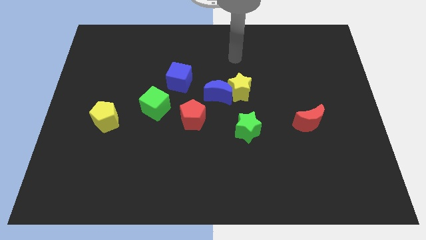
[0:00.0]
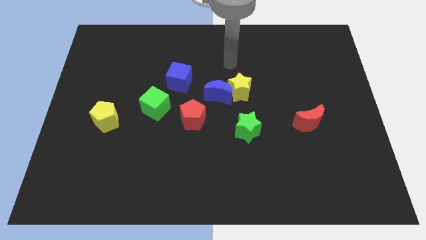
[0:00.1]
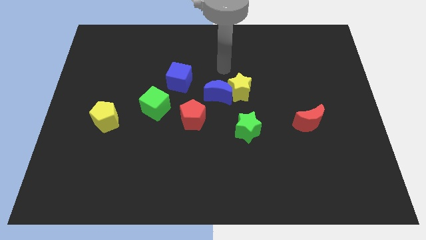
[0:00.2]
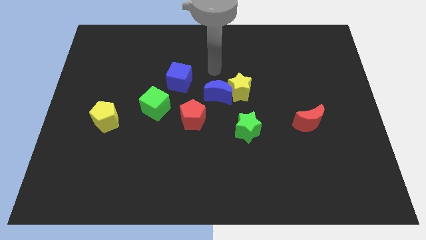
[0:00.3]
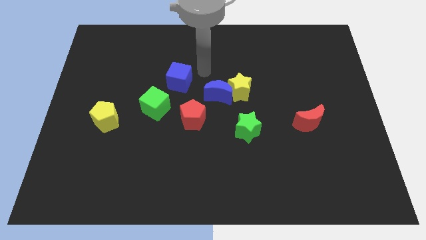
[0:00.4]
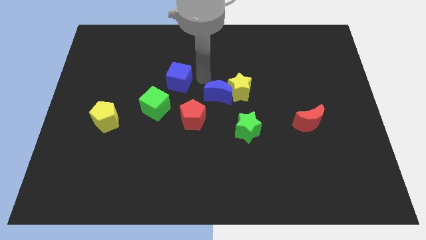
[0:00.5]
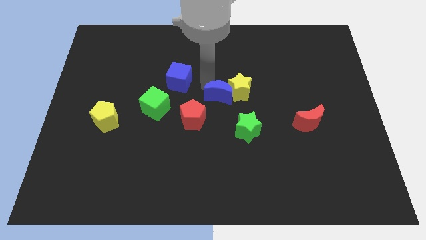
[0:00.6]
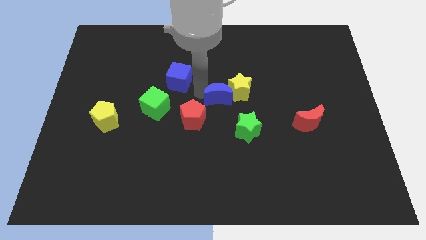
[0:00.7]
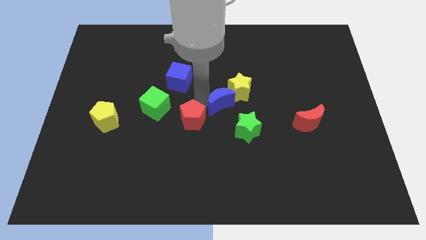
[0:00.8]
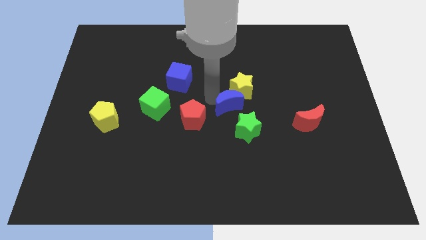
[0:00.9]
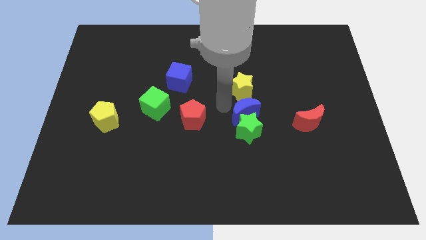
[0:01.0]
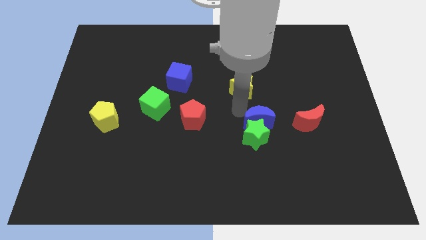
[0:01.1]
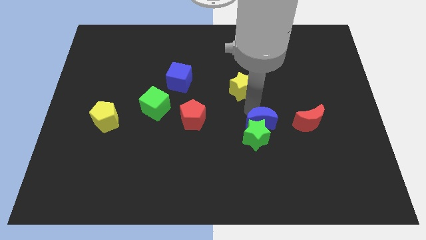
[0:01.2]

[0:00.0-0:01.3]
move the yellow star away from the blue moon

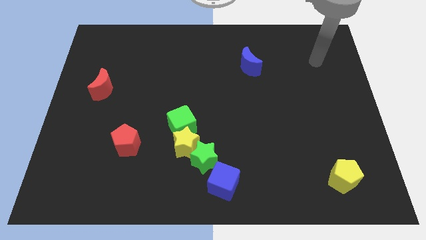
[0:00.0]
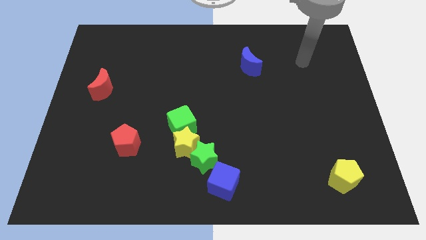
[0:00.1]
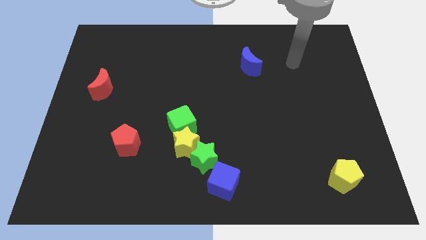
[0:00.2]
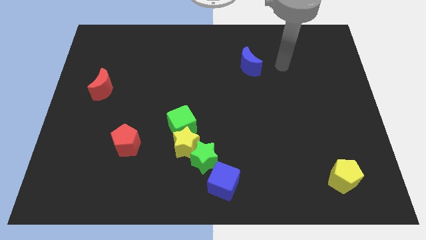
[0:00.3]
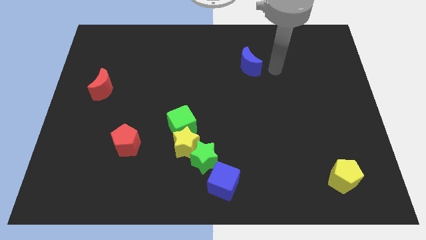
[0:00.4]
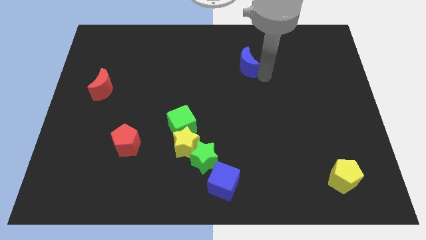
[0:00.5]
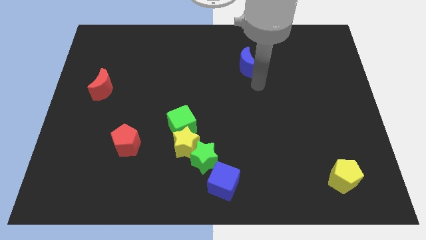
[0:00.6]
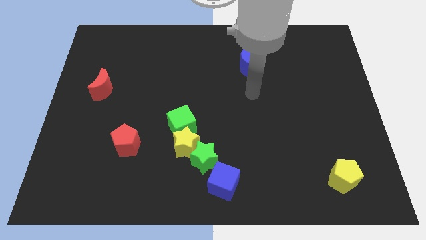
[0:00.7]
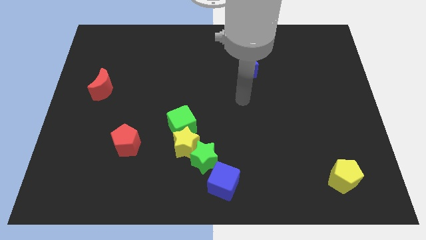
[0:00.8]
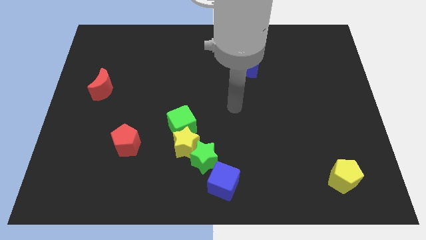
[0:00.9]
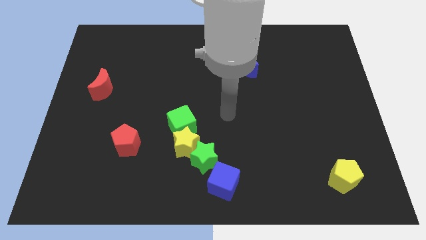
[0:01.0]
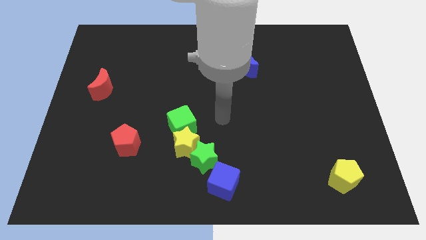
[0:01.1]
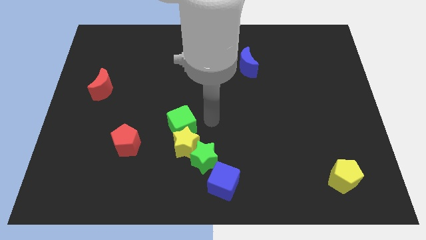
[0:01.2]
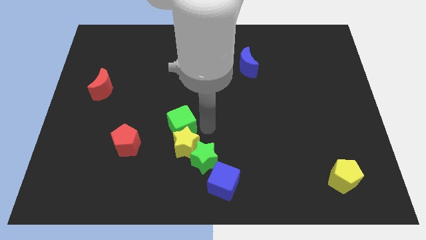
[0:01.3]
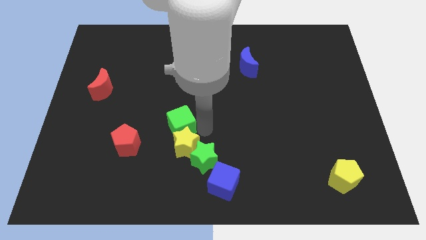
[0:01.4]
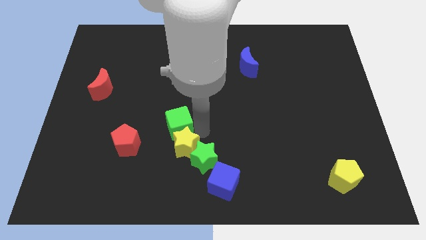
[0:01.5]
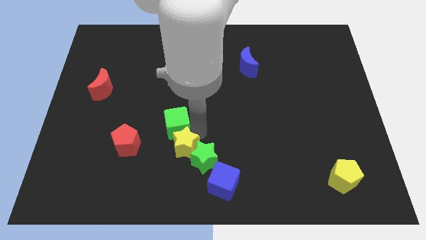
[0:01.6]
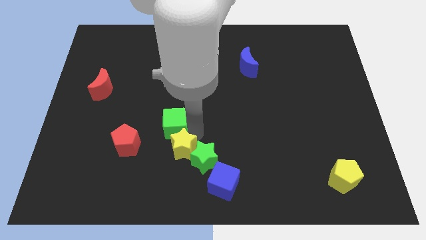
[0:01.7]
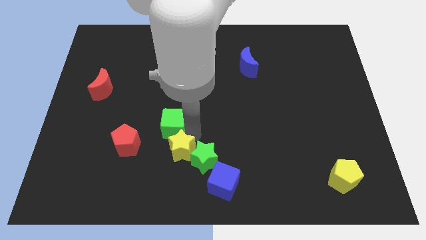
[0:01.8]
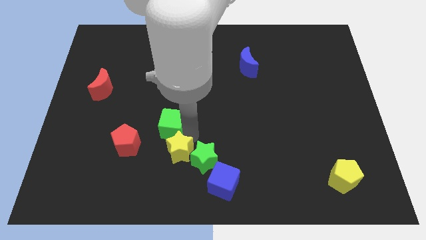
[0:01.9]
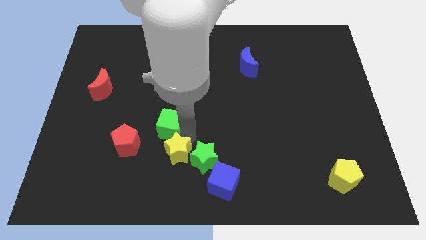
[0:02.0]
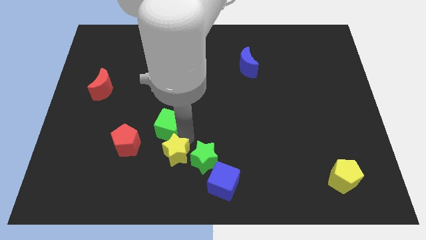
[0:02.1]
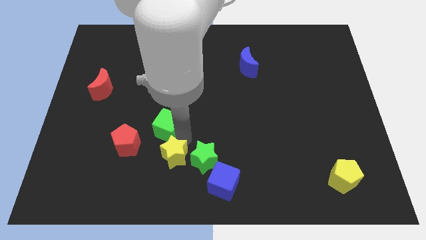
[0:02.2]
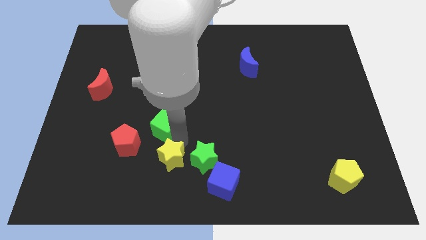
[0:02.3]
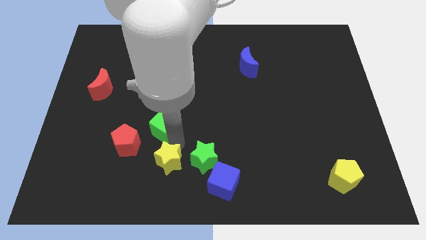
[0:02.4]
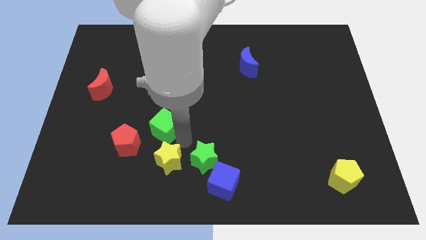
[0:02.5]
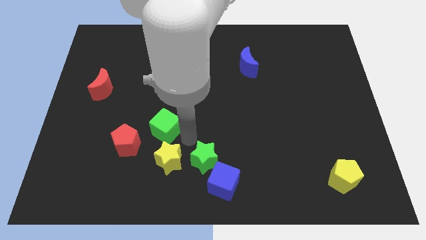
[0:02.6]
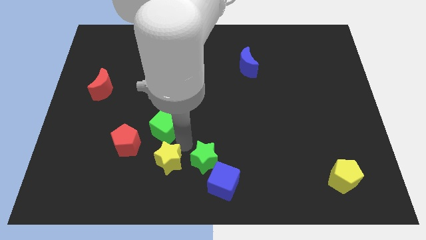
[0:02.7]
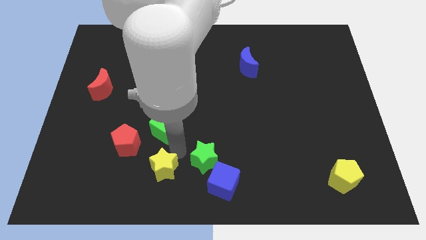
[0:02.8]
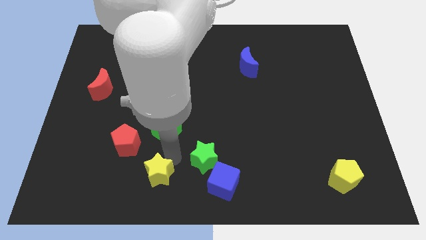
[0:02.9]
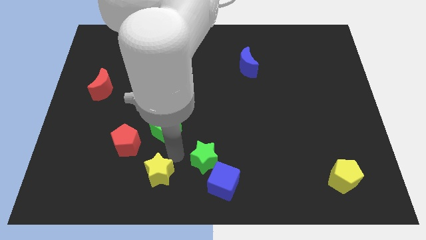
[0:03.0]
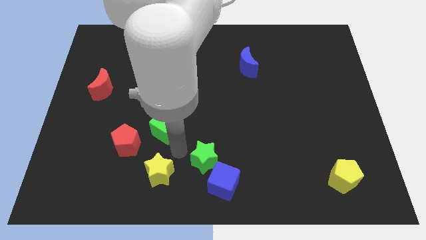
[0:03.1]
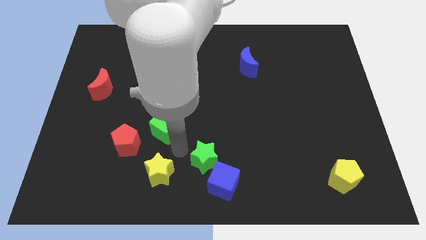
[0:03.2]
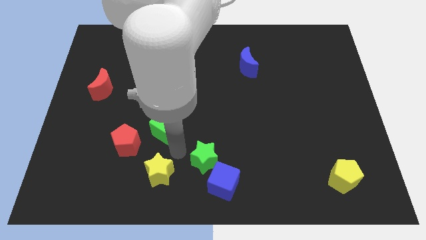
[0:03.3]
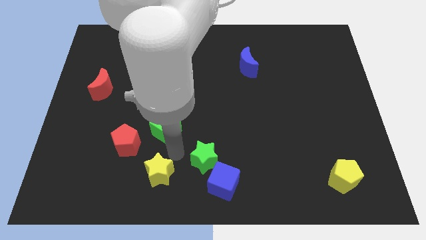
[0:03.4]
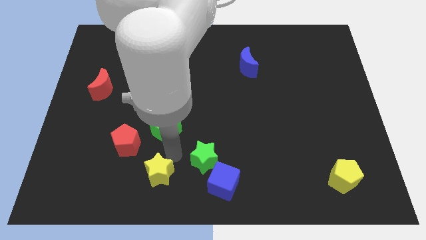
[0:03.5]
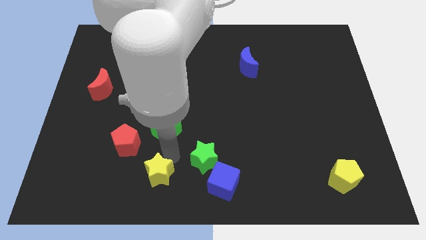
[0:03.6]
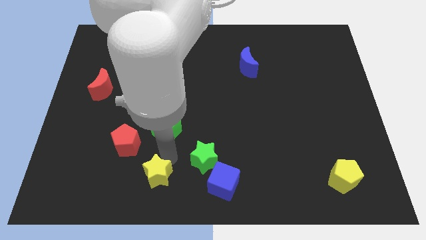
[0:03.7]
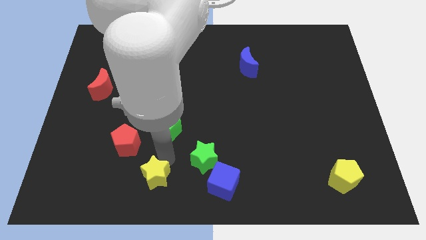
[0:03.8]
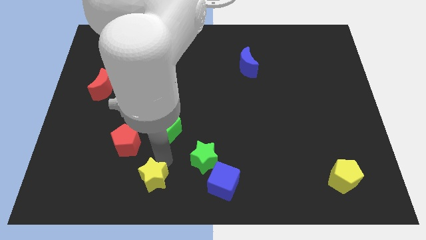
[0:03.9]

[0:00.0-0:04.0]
move the yellow star away from the green star and green cube

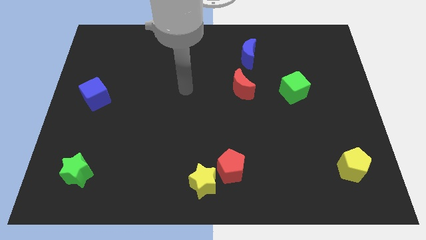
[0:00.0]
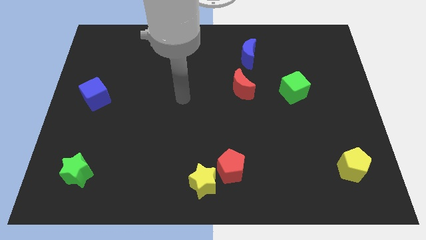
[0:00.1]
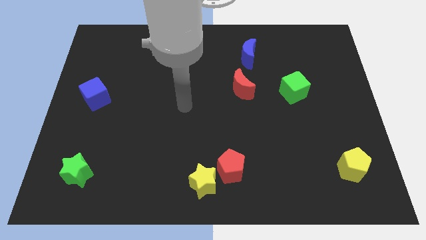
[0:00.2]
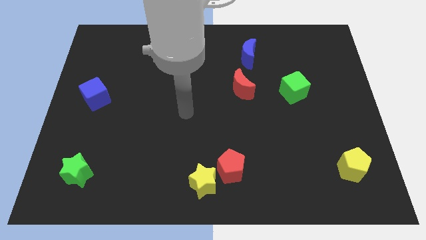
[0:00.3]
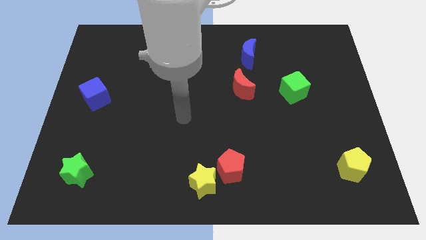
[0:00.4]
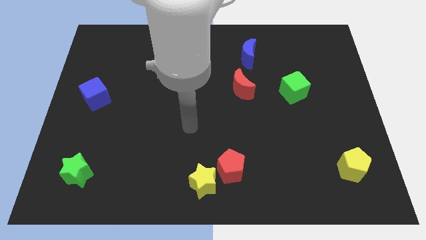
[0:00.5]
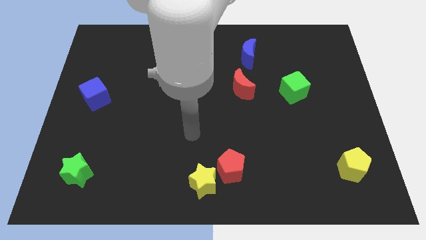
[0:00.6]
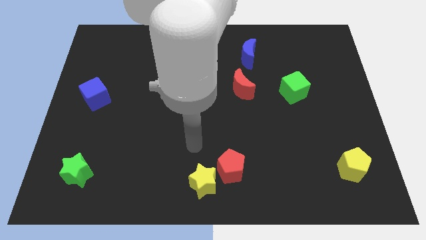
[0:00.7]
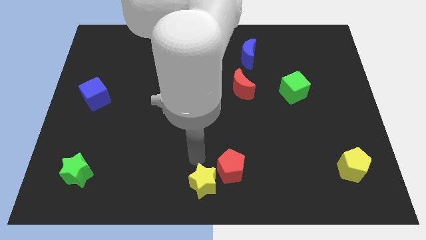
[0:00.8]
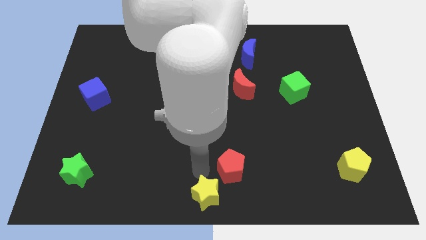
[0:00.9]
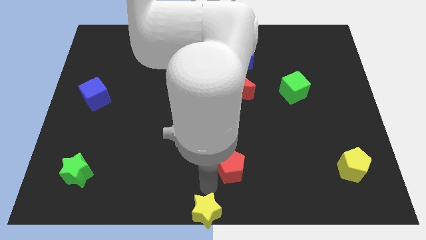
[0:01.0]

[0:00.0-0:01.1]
separate the red pentagon from the yellow star

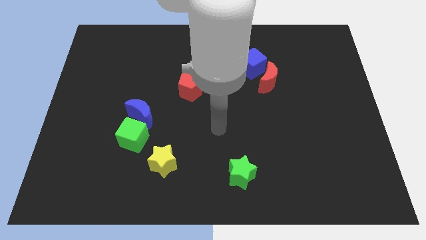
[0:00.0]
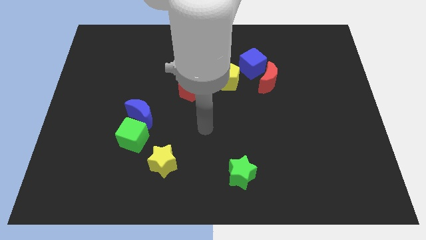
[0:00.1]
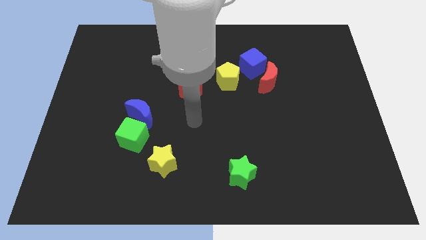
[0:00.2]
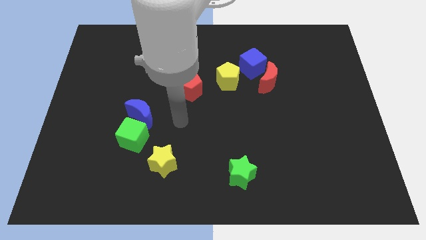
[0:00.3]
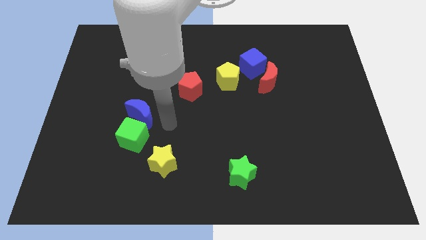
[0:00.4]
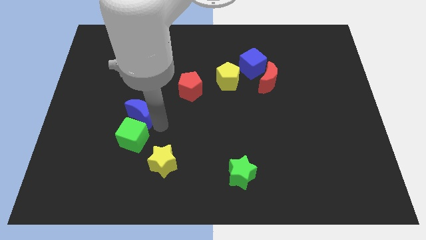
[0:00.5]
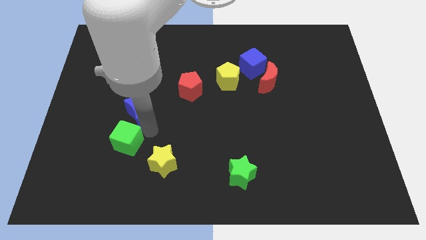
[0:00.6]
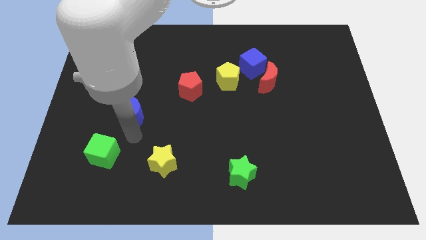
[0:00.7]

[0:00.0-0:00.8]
pull the blue moon apart from the green cube

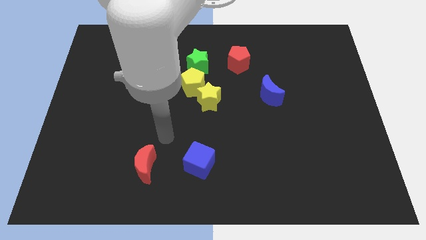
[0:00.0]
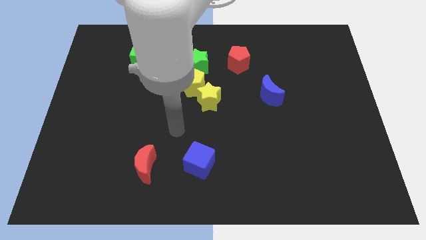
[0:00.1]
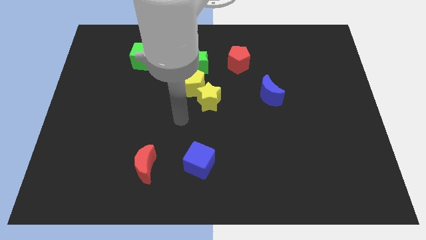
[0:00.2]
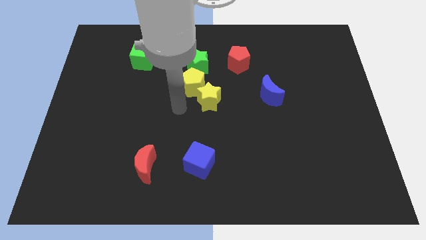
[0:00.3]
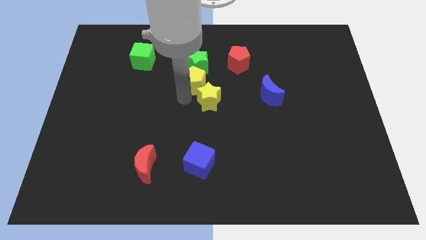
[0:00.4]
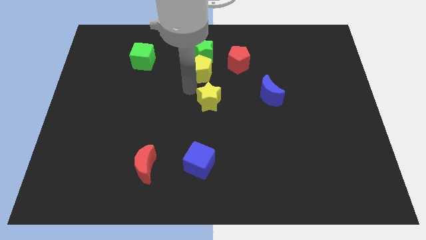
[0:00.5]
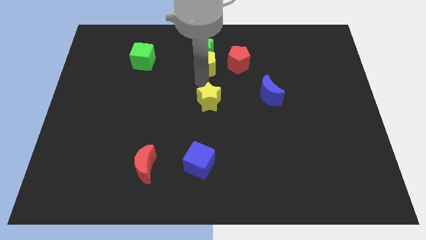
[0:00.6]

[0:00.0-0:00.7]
separate the yellow star from the yellow pentagon

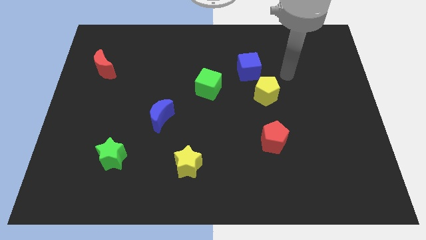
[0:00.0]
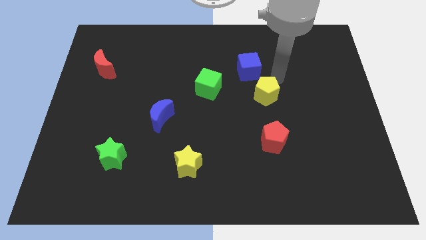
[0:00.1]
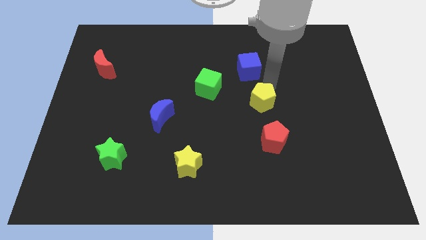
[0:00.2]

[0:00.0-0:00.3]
move the blue cube away from the yellow pentagon

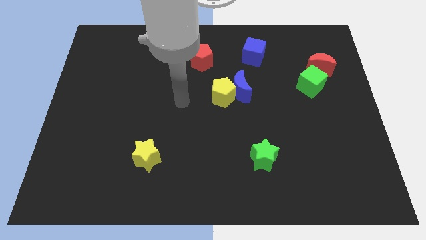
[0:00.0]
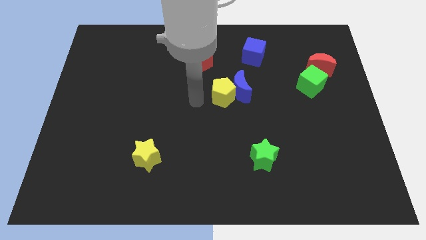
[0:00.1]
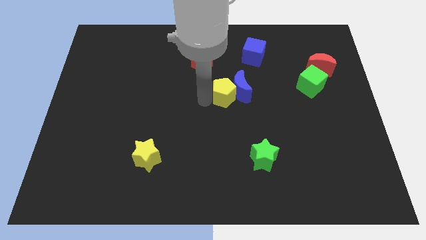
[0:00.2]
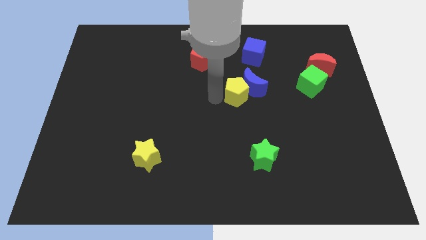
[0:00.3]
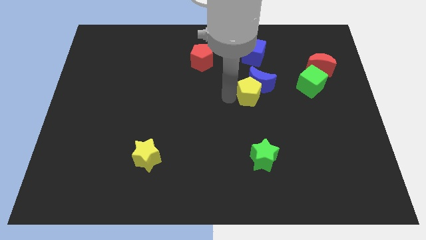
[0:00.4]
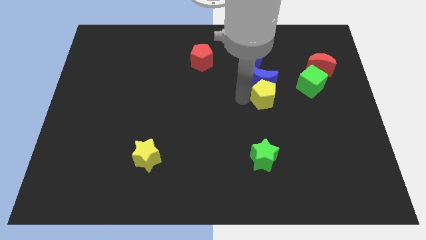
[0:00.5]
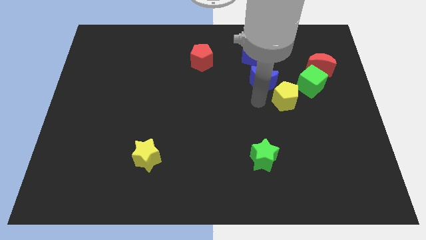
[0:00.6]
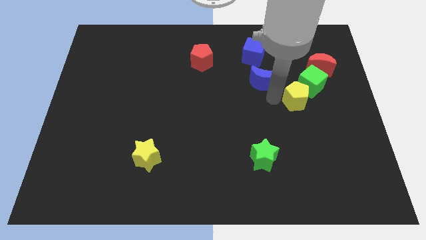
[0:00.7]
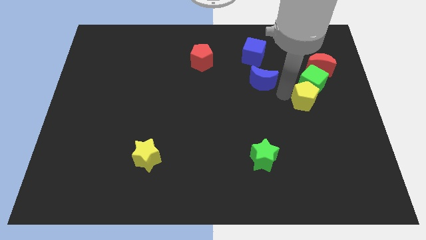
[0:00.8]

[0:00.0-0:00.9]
separate the blue moon from the yellow pentagon

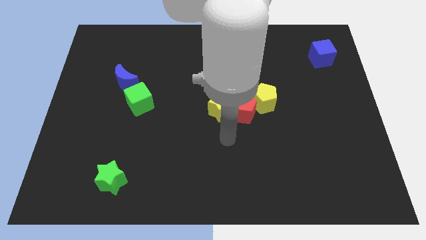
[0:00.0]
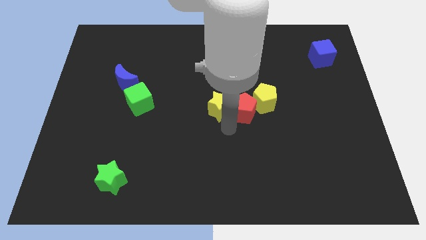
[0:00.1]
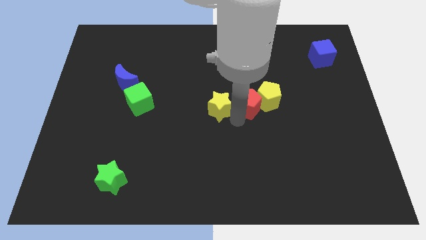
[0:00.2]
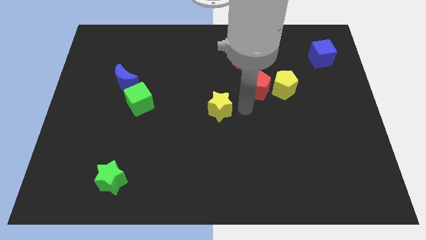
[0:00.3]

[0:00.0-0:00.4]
separate the yellow star from the red pentagon
